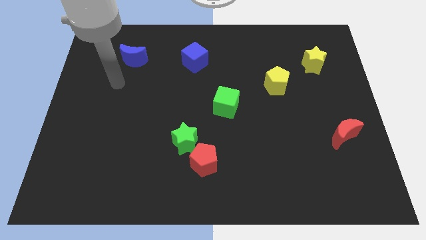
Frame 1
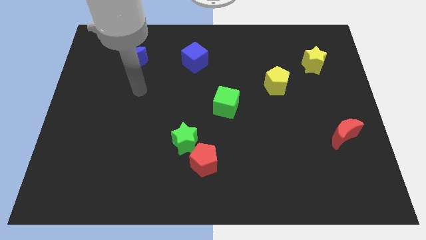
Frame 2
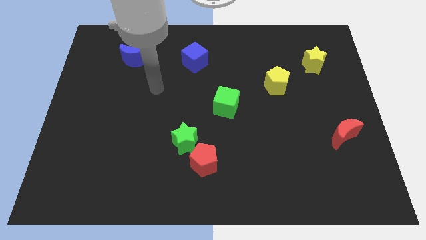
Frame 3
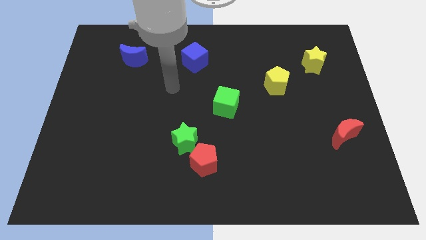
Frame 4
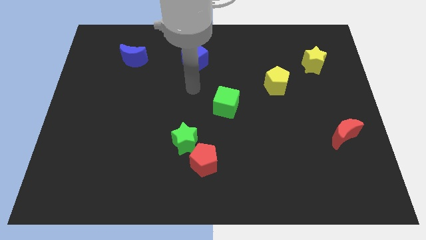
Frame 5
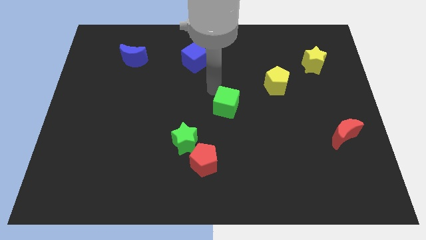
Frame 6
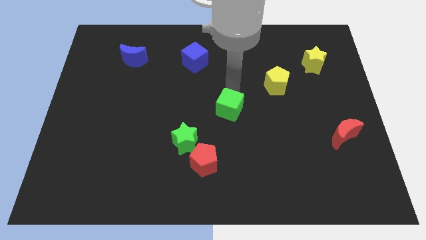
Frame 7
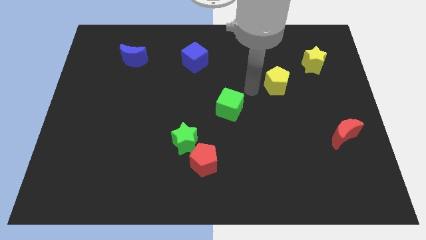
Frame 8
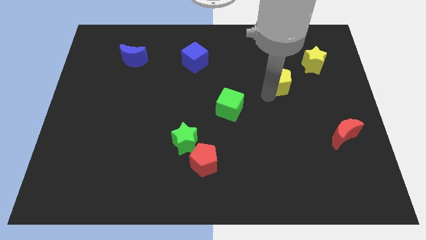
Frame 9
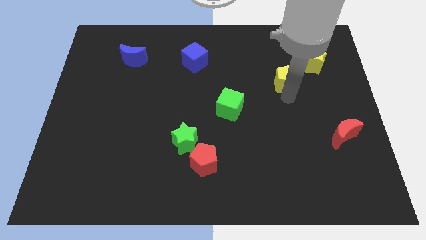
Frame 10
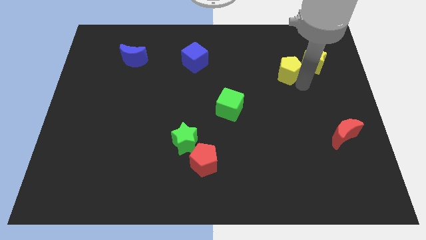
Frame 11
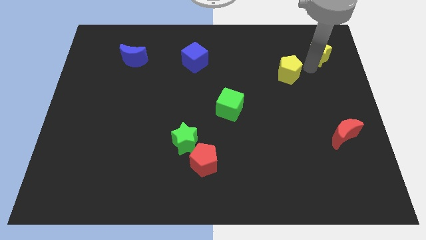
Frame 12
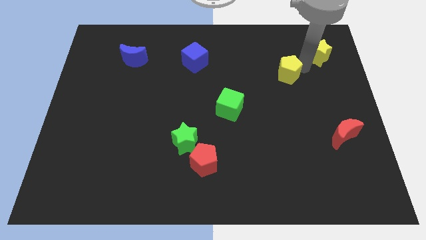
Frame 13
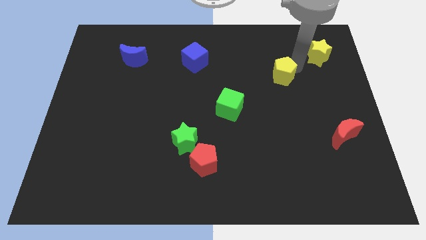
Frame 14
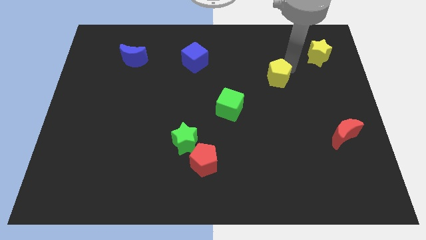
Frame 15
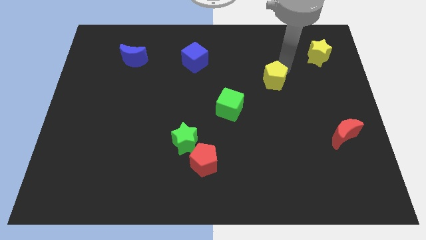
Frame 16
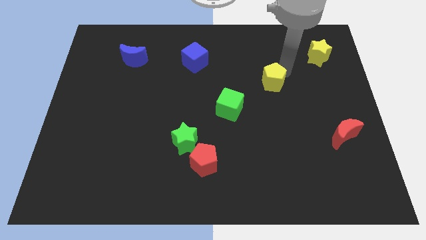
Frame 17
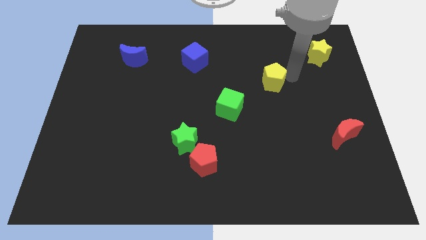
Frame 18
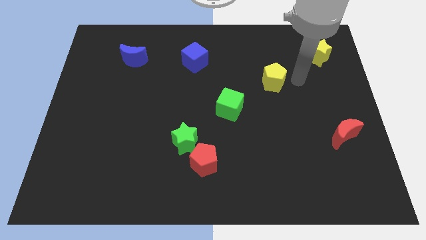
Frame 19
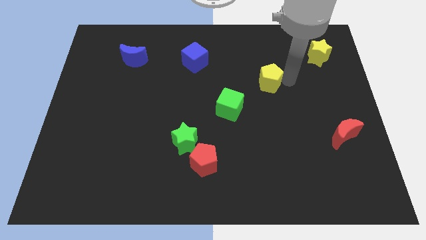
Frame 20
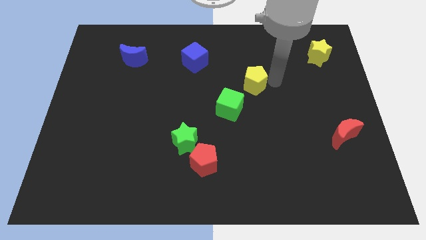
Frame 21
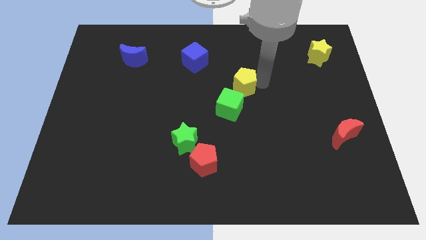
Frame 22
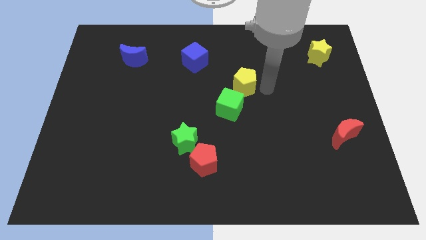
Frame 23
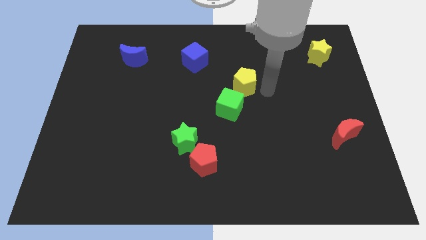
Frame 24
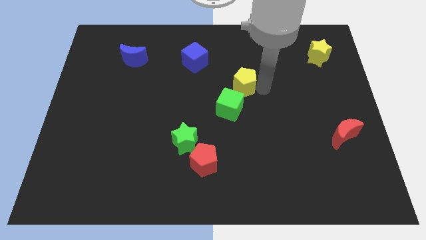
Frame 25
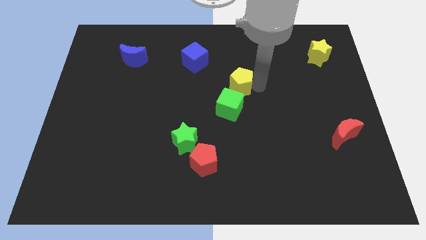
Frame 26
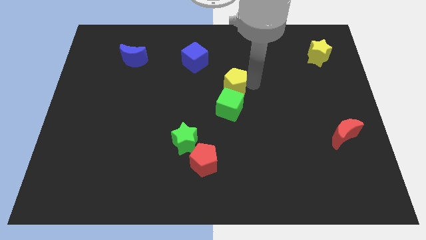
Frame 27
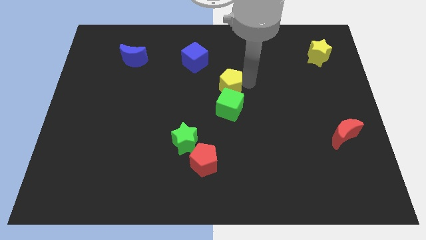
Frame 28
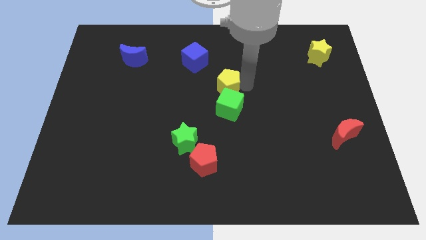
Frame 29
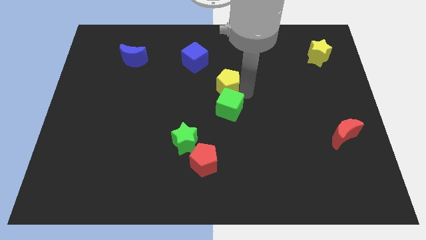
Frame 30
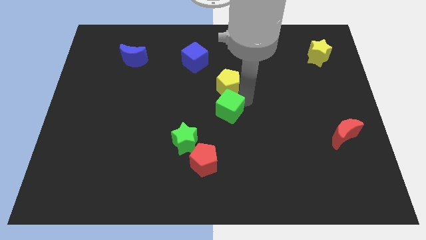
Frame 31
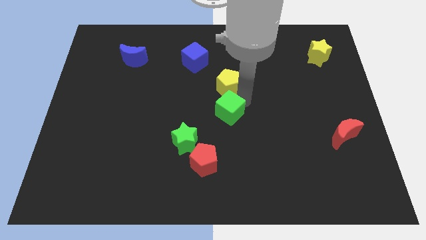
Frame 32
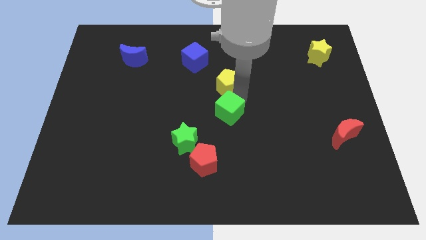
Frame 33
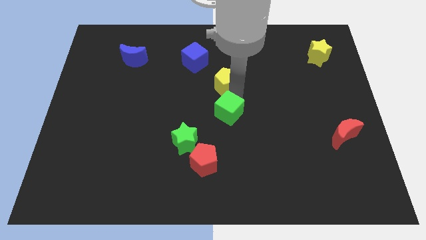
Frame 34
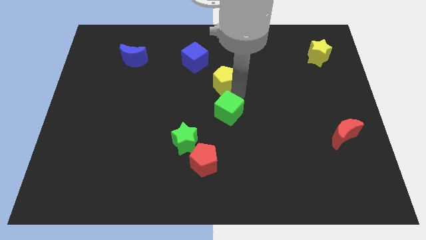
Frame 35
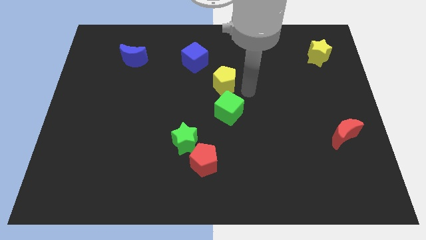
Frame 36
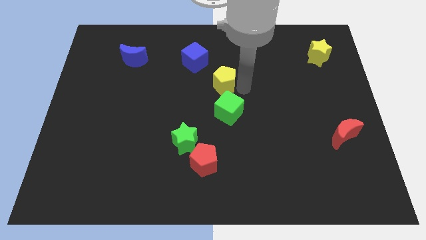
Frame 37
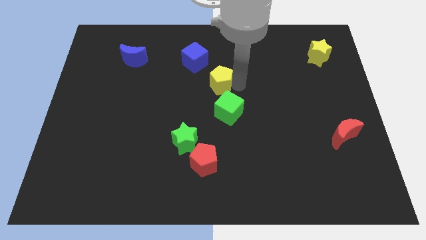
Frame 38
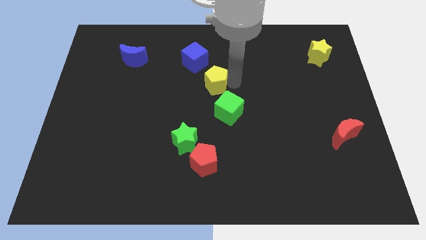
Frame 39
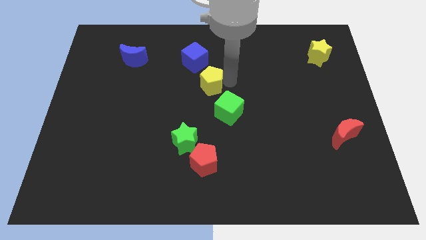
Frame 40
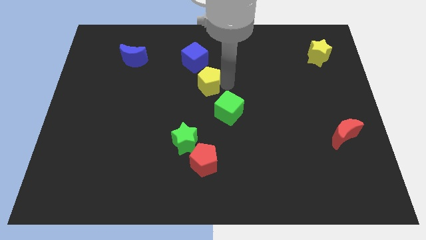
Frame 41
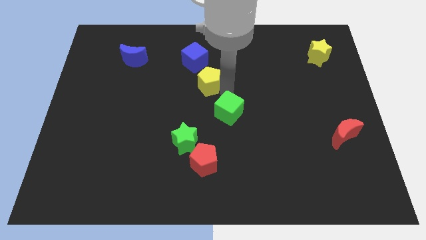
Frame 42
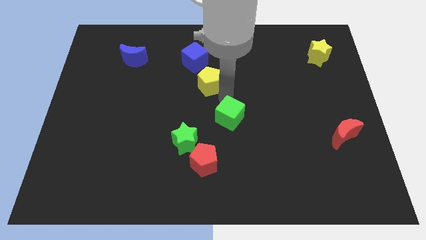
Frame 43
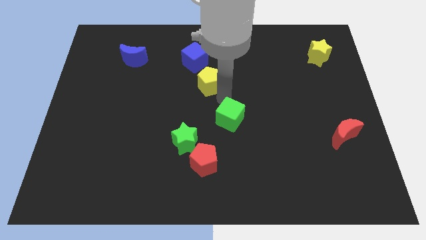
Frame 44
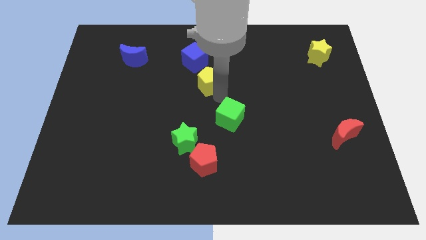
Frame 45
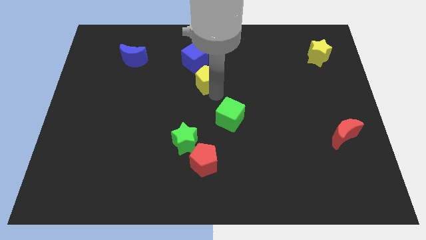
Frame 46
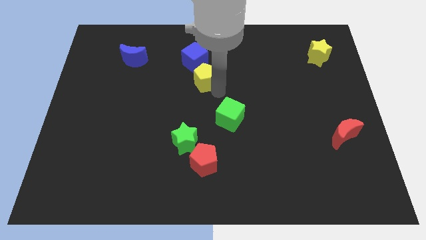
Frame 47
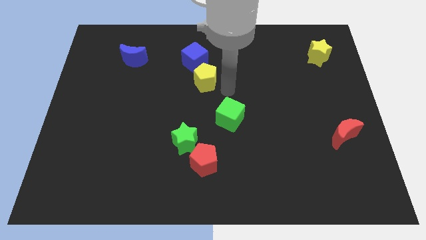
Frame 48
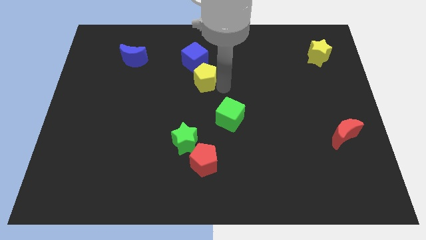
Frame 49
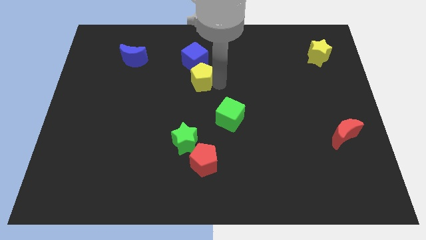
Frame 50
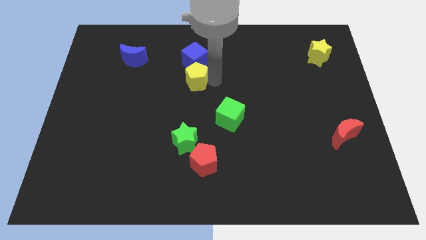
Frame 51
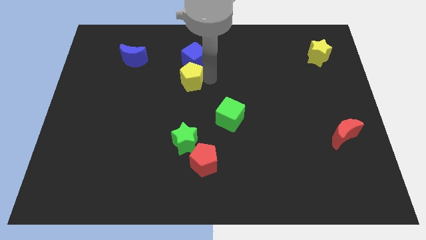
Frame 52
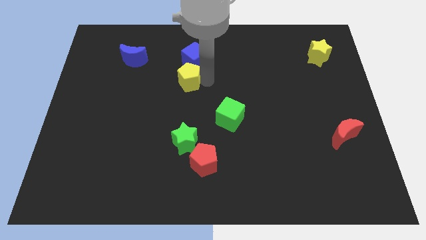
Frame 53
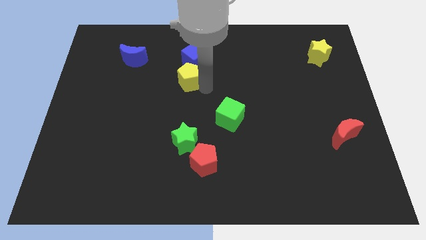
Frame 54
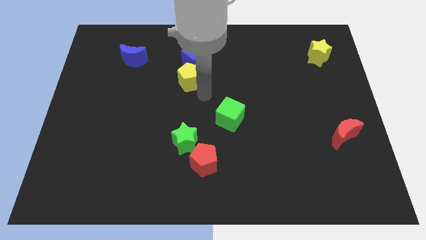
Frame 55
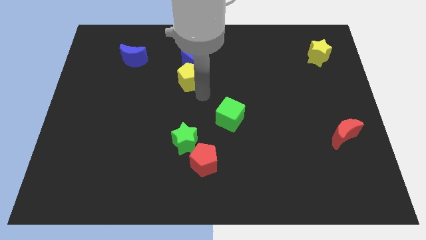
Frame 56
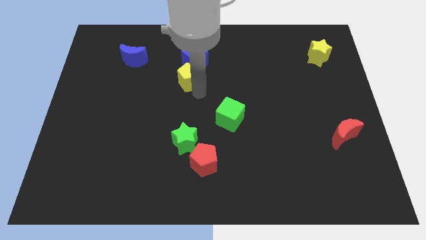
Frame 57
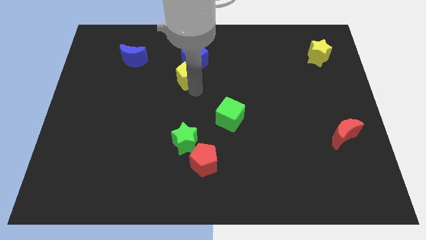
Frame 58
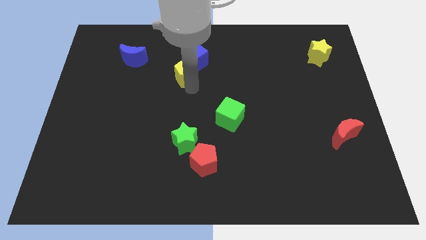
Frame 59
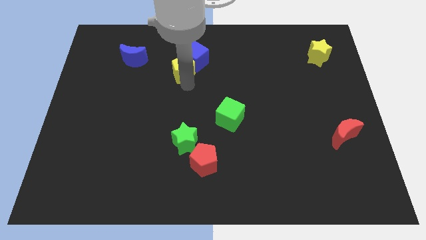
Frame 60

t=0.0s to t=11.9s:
slide the yellow pentagon right of the blue moon

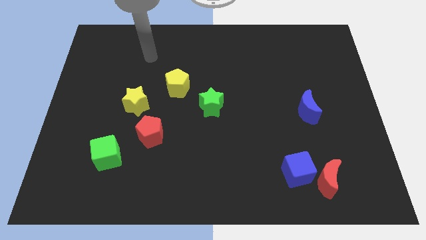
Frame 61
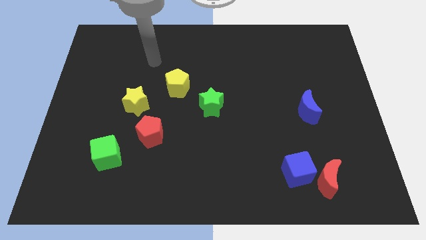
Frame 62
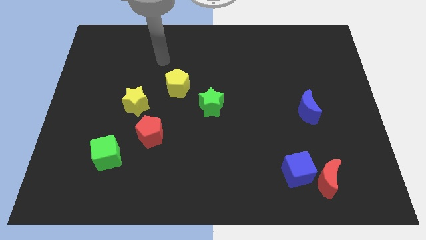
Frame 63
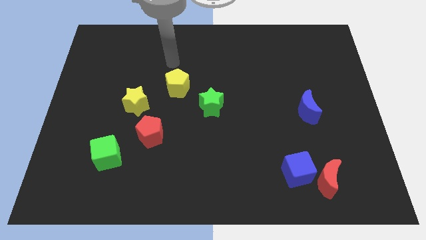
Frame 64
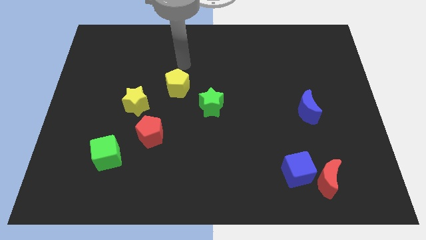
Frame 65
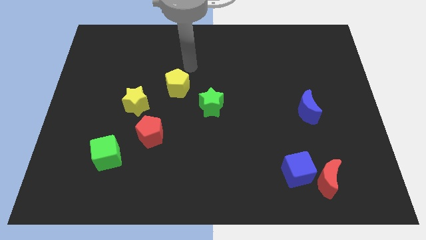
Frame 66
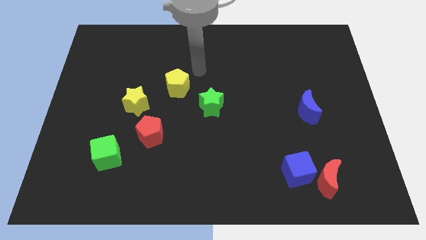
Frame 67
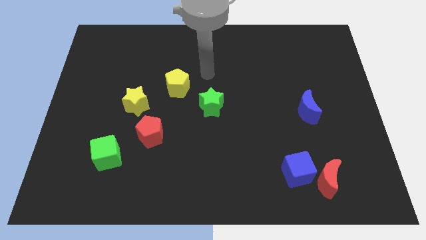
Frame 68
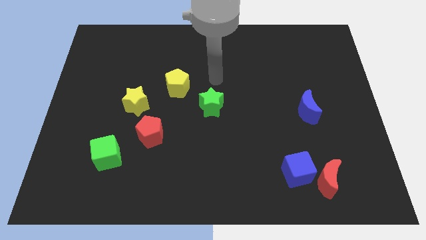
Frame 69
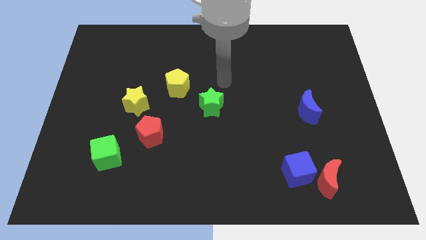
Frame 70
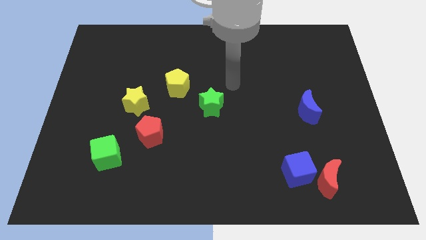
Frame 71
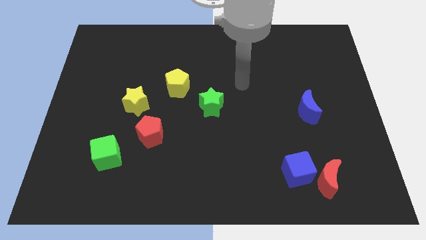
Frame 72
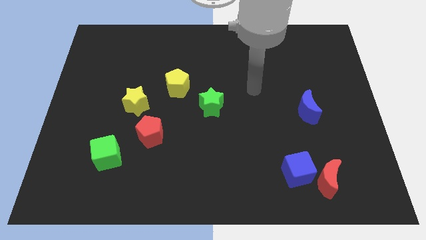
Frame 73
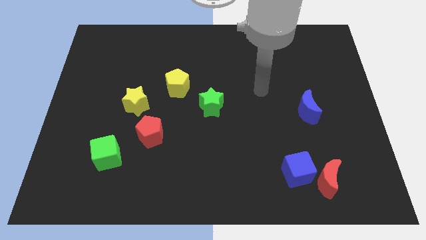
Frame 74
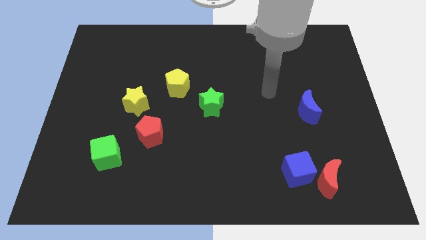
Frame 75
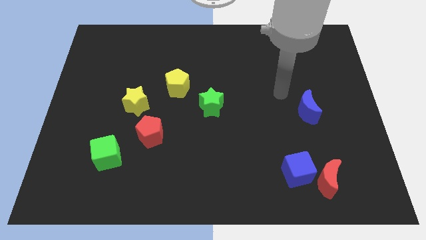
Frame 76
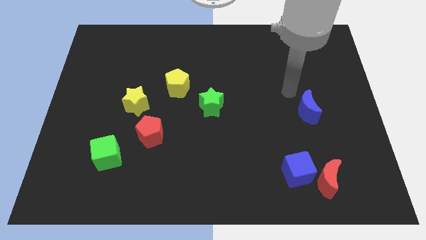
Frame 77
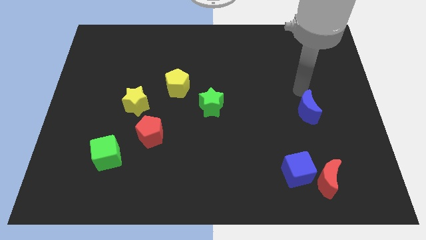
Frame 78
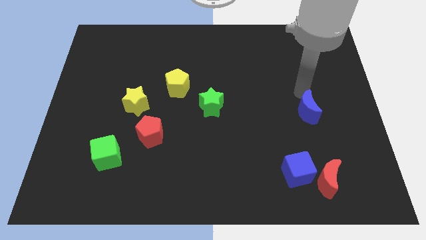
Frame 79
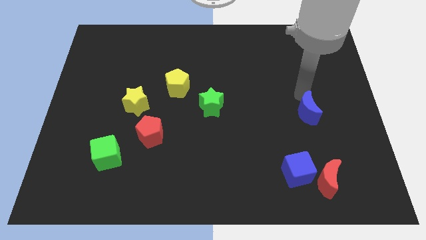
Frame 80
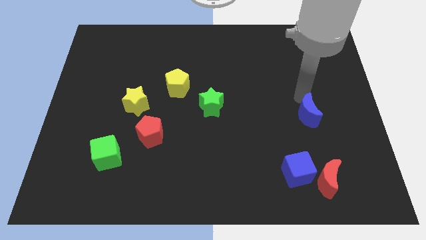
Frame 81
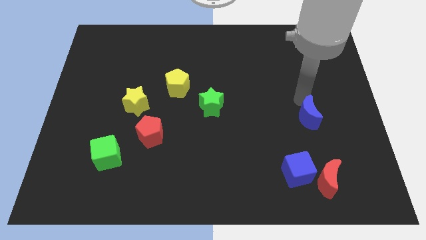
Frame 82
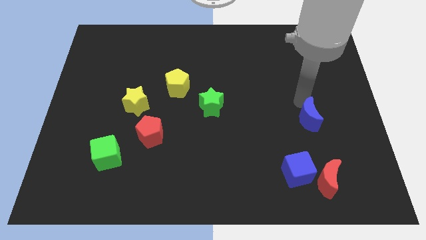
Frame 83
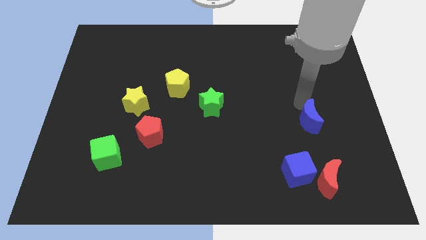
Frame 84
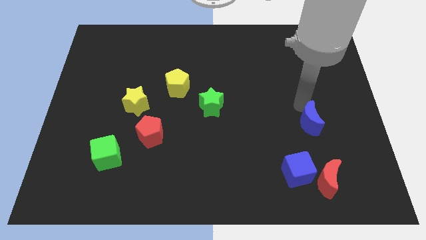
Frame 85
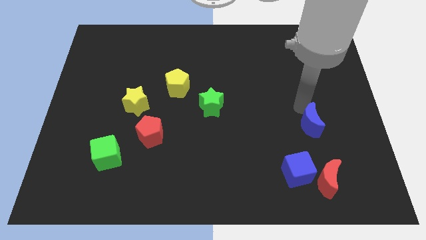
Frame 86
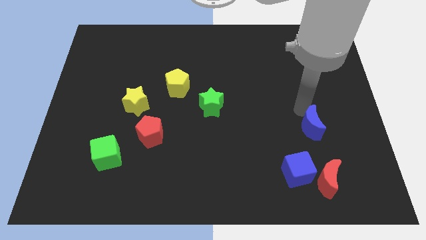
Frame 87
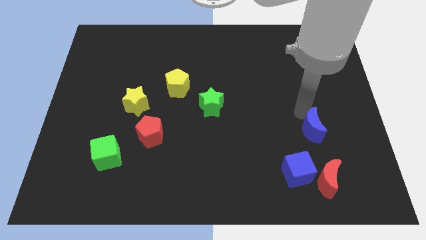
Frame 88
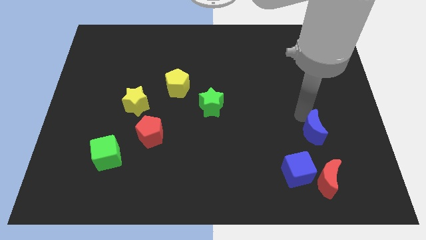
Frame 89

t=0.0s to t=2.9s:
push the blue moon to the top right side of the blue cube
